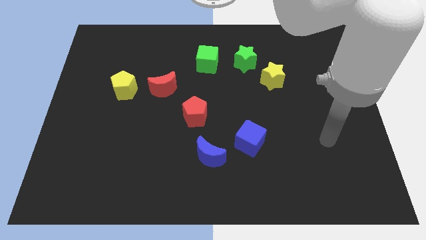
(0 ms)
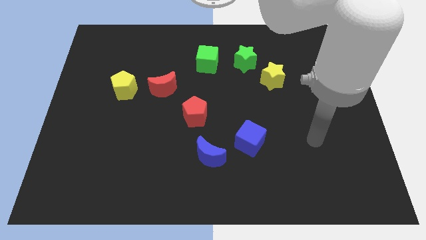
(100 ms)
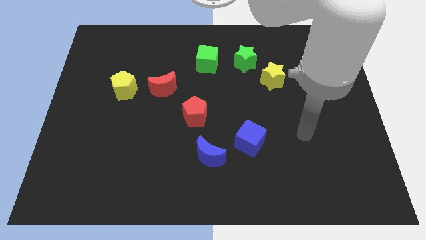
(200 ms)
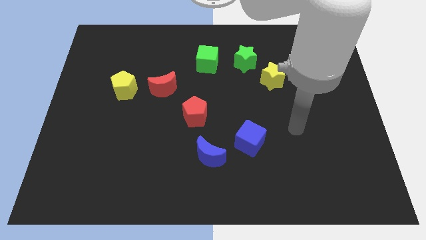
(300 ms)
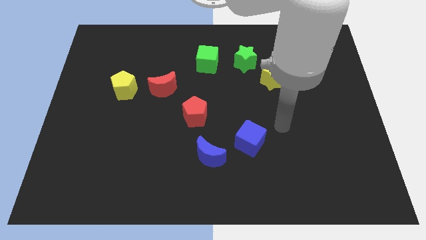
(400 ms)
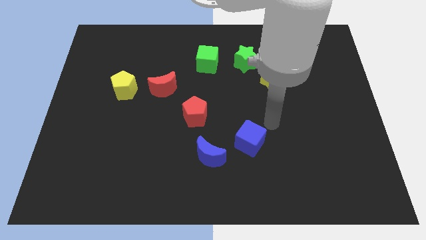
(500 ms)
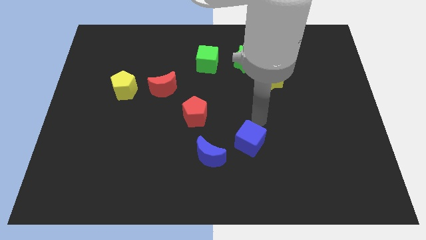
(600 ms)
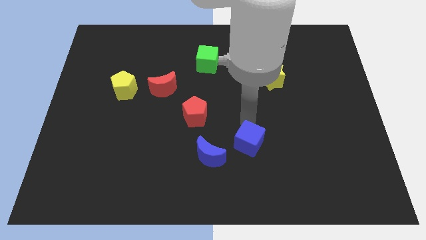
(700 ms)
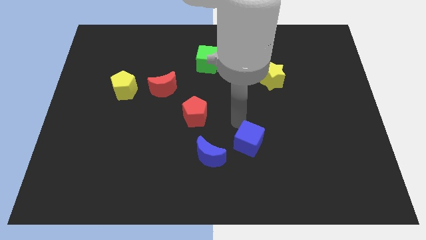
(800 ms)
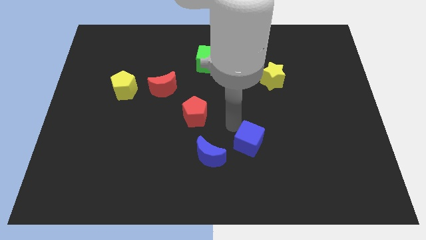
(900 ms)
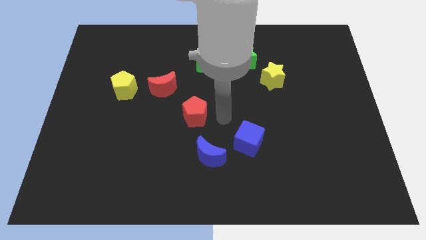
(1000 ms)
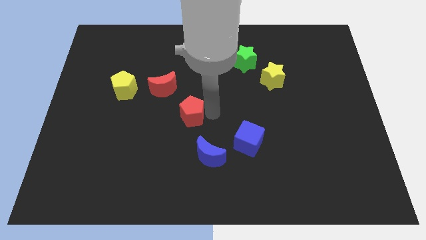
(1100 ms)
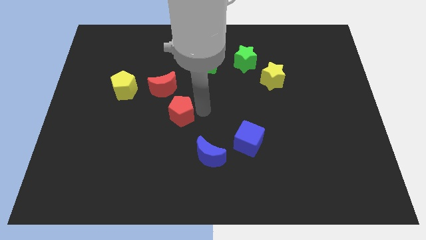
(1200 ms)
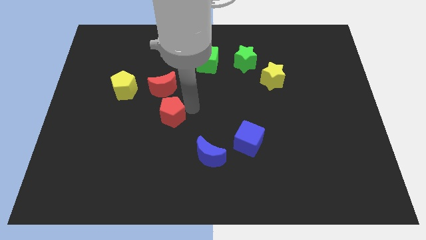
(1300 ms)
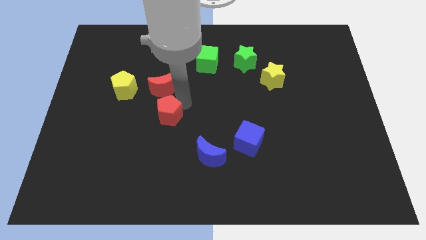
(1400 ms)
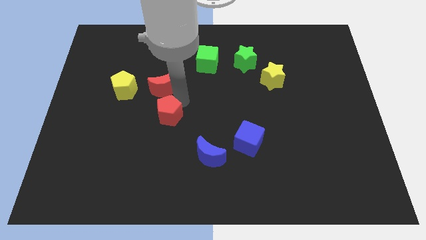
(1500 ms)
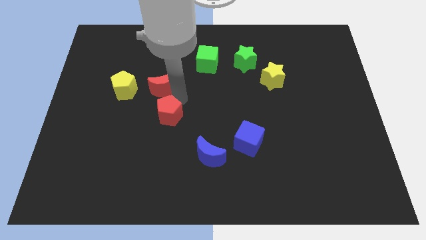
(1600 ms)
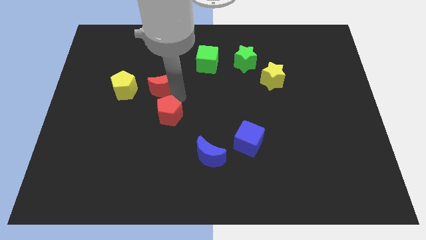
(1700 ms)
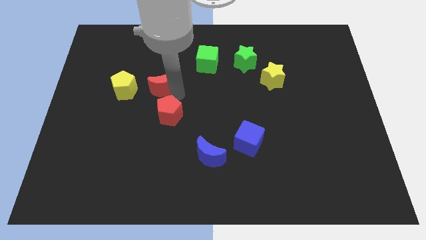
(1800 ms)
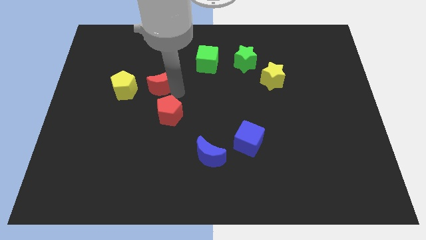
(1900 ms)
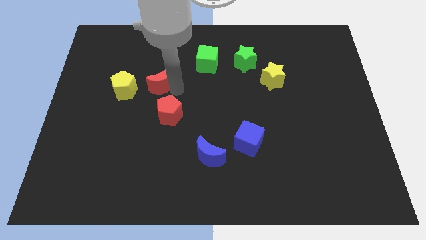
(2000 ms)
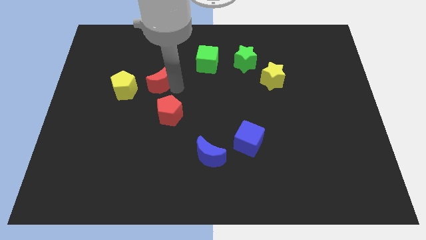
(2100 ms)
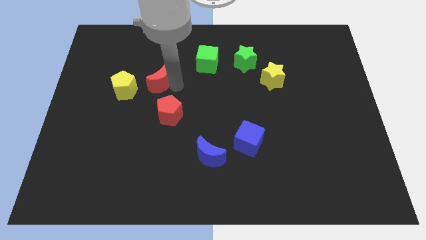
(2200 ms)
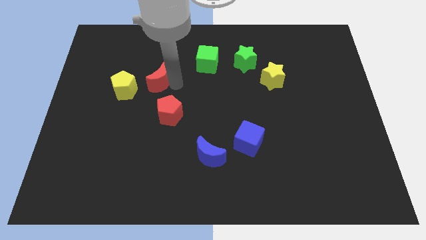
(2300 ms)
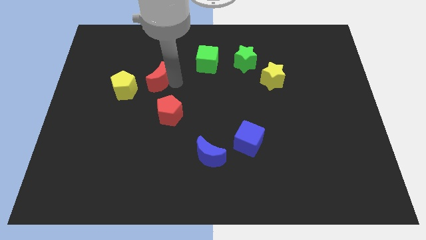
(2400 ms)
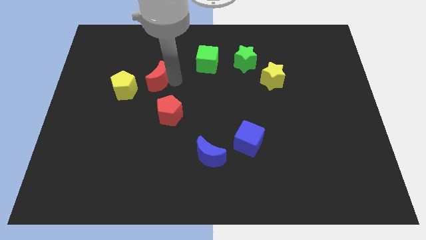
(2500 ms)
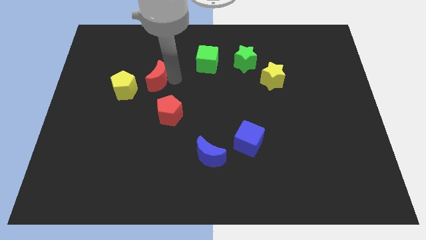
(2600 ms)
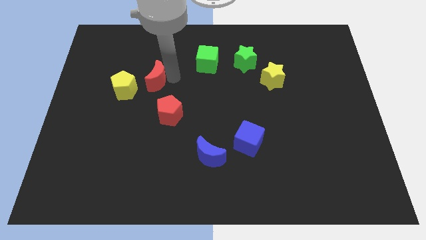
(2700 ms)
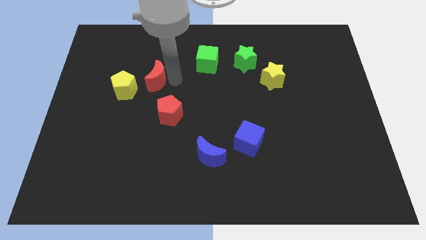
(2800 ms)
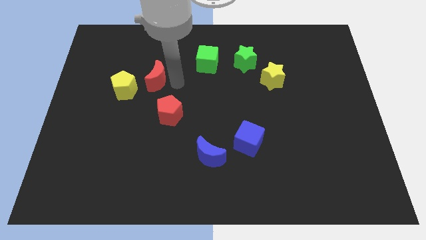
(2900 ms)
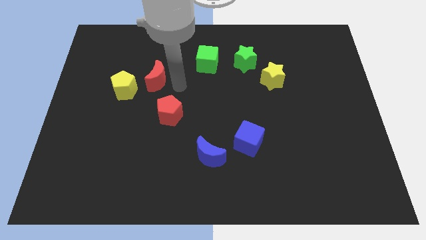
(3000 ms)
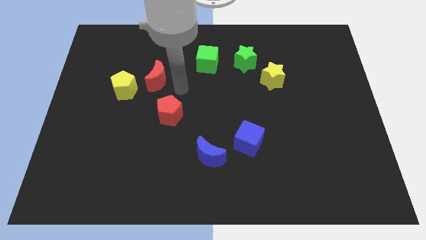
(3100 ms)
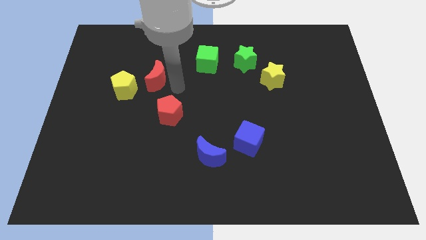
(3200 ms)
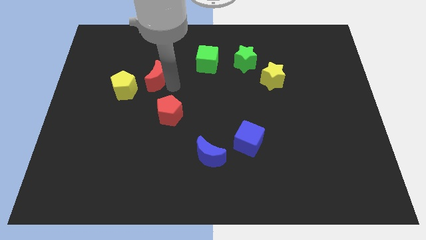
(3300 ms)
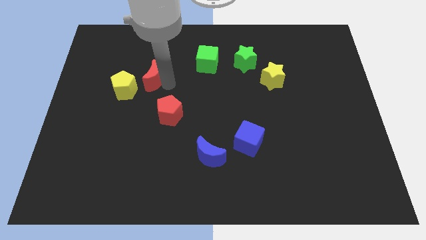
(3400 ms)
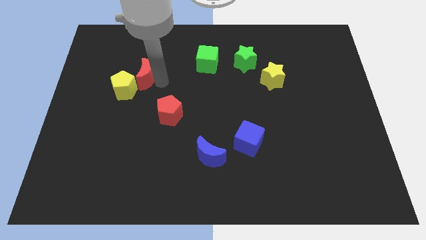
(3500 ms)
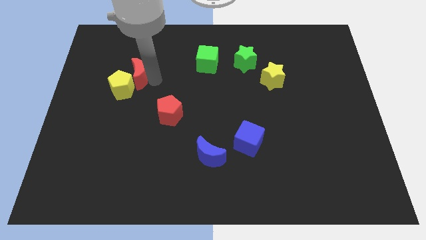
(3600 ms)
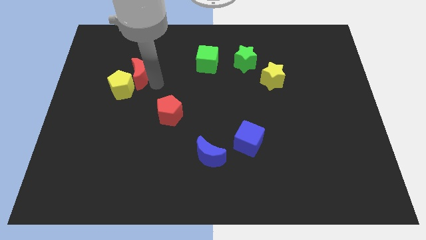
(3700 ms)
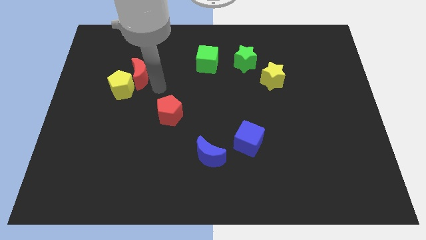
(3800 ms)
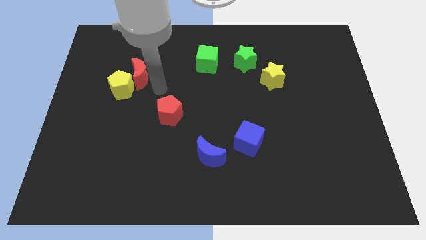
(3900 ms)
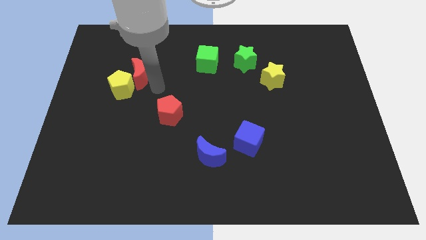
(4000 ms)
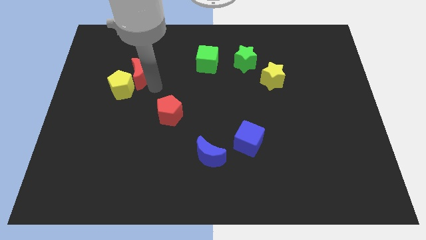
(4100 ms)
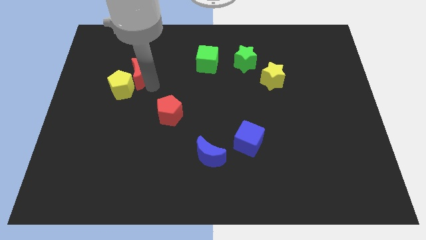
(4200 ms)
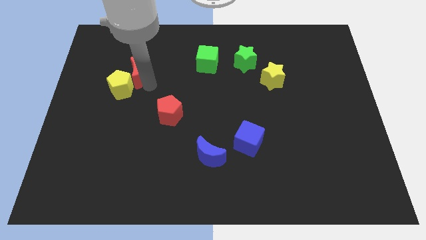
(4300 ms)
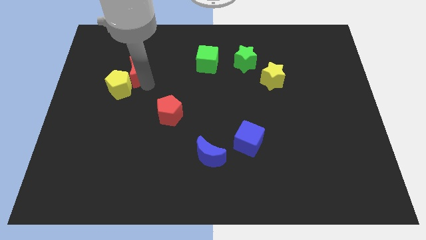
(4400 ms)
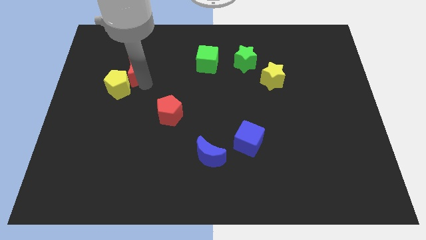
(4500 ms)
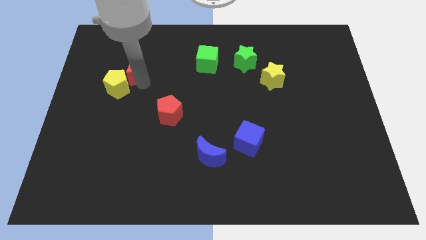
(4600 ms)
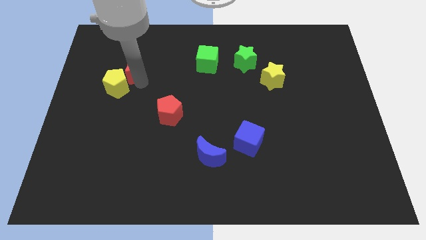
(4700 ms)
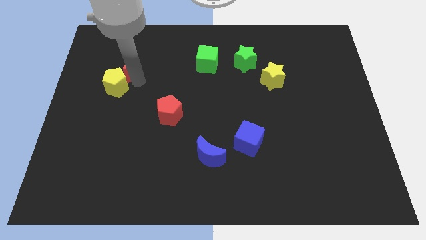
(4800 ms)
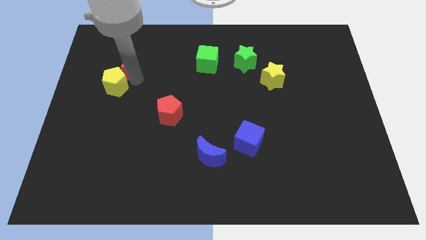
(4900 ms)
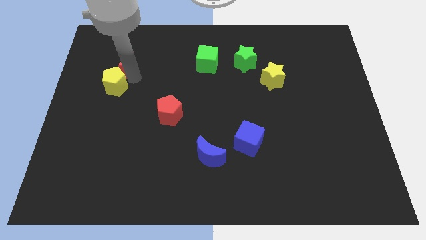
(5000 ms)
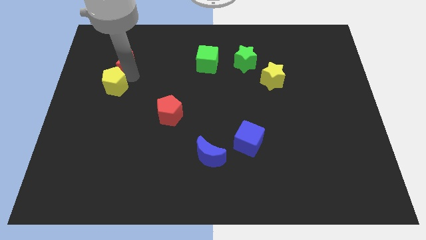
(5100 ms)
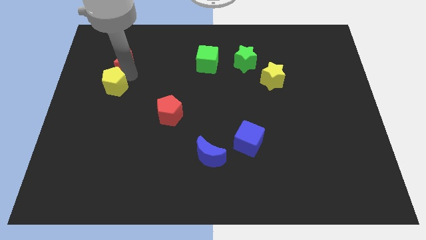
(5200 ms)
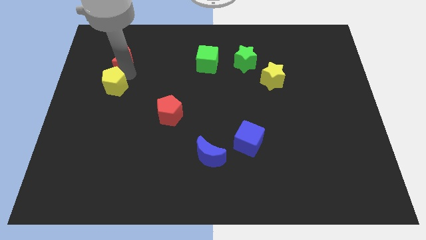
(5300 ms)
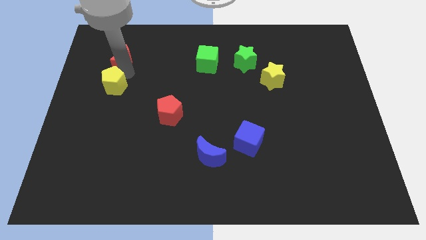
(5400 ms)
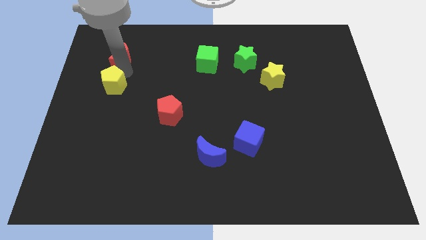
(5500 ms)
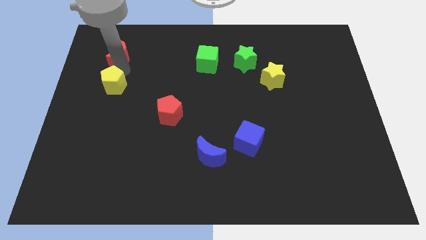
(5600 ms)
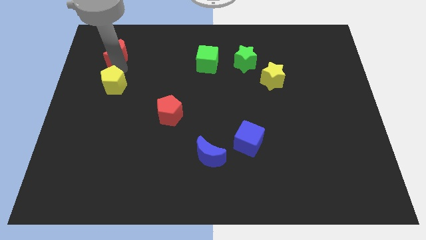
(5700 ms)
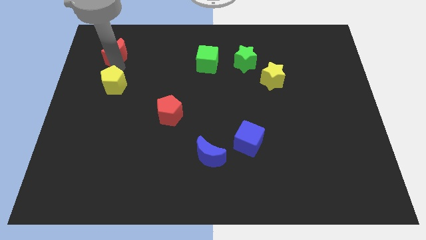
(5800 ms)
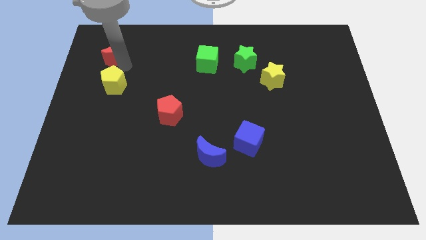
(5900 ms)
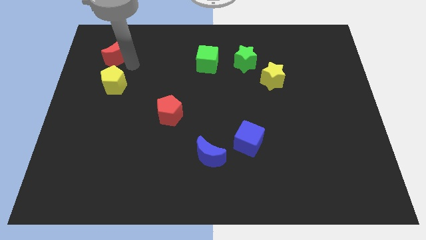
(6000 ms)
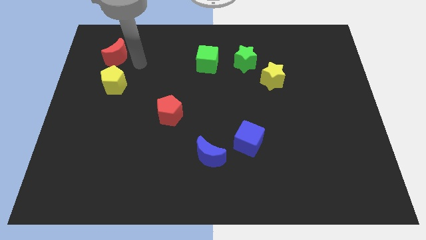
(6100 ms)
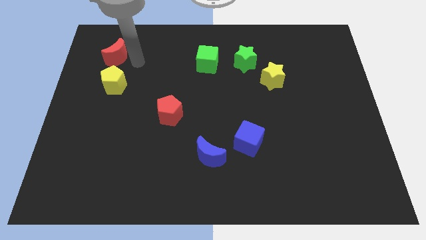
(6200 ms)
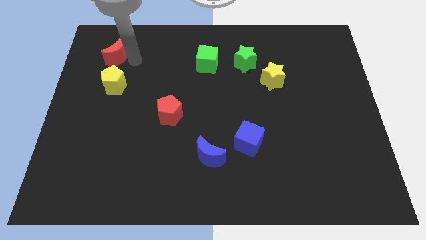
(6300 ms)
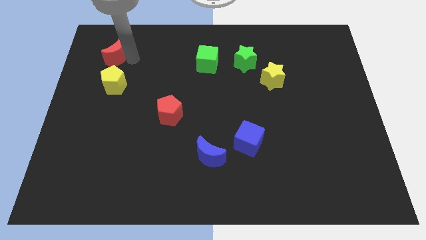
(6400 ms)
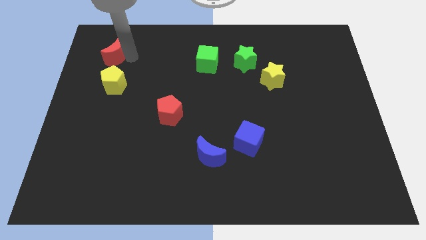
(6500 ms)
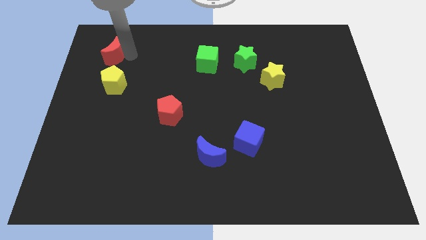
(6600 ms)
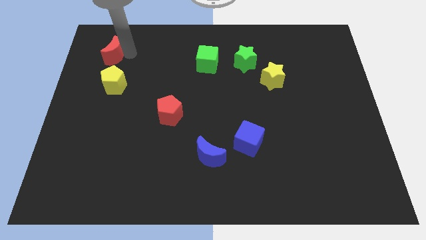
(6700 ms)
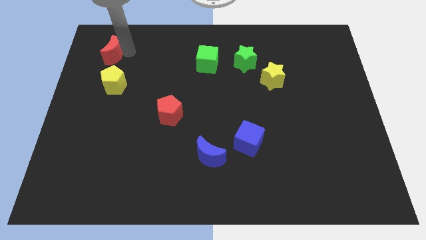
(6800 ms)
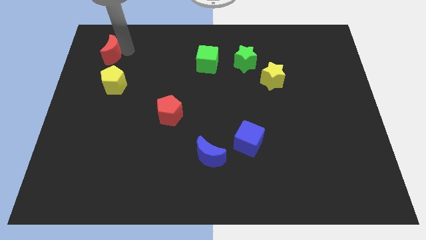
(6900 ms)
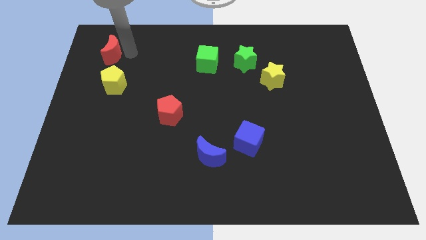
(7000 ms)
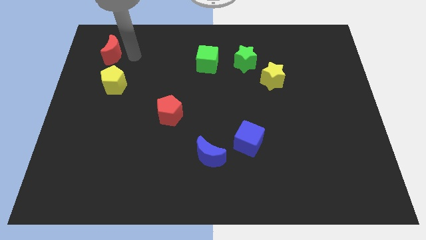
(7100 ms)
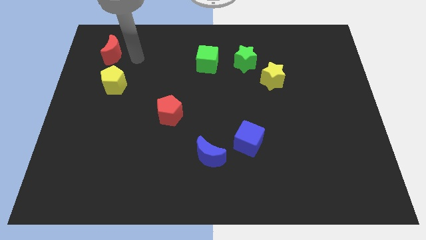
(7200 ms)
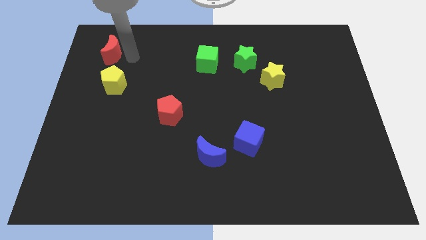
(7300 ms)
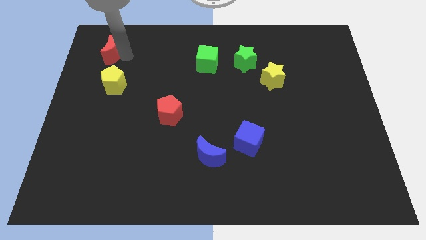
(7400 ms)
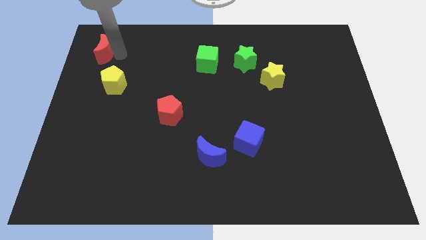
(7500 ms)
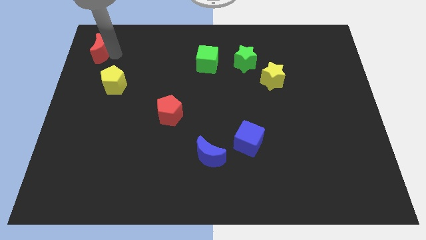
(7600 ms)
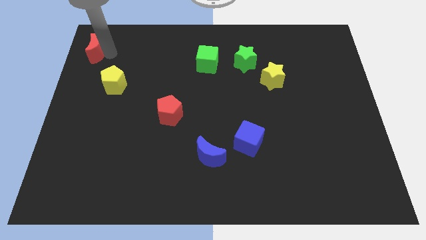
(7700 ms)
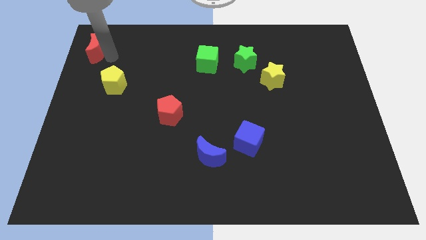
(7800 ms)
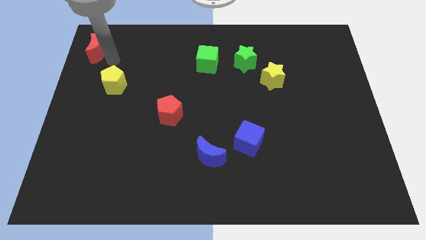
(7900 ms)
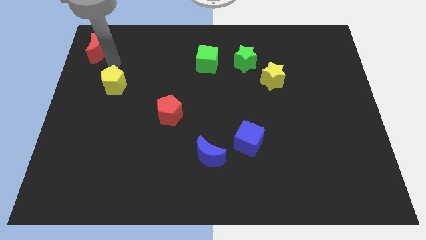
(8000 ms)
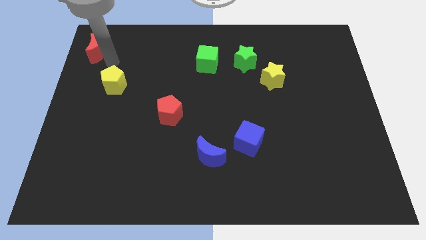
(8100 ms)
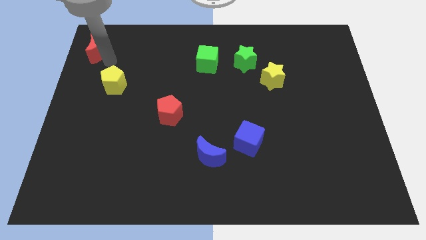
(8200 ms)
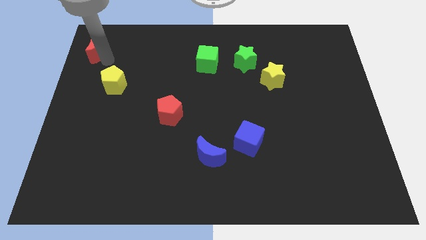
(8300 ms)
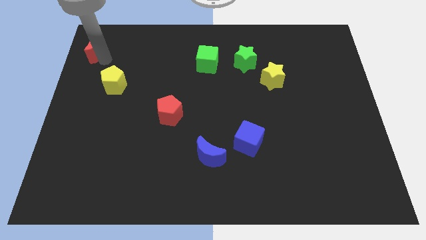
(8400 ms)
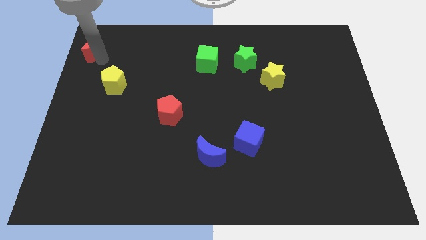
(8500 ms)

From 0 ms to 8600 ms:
push the red moon to the top left
